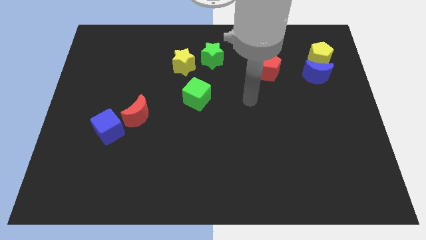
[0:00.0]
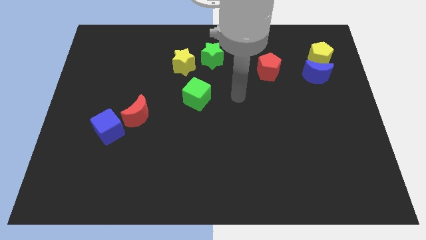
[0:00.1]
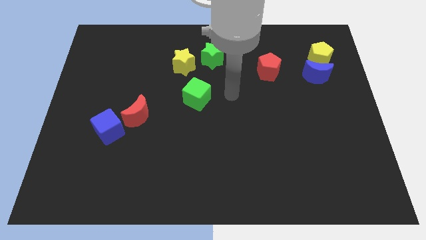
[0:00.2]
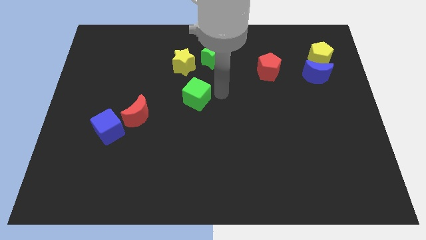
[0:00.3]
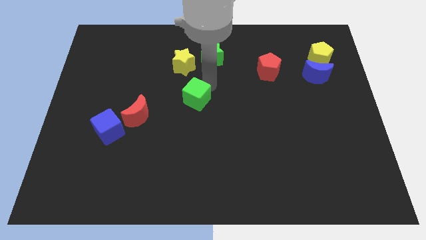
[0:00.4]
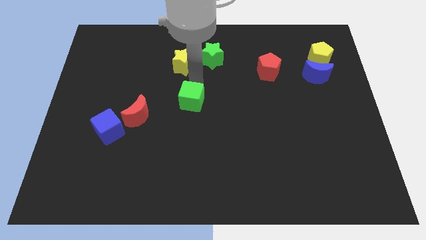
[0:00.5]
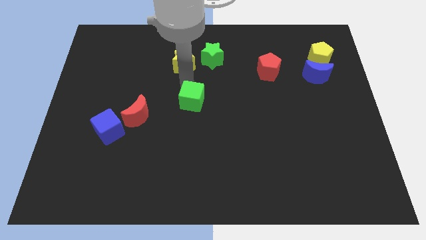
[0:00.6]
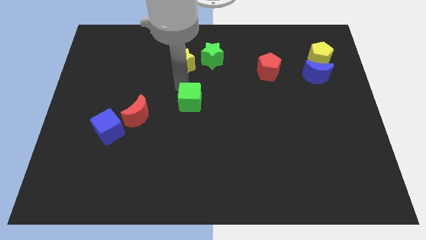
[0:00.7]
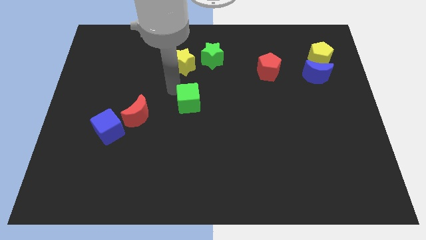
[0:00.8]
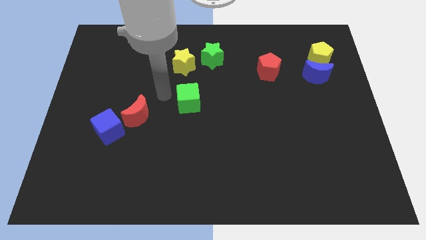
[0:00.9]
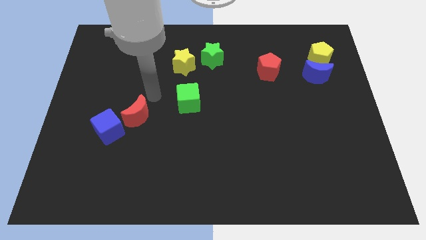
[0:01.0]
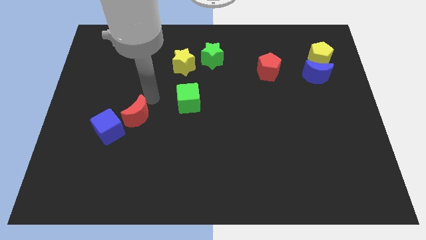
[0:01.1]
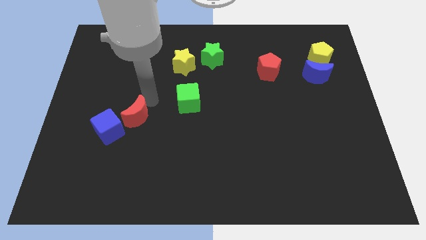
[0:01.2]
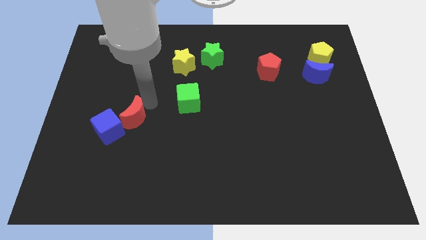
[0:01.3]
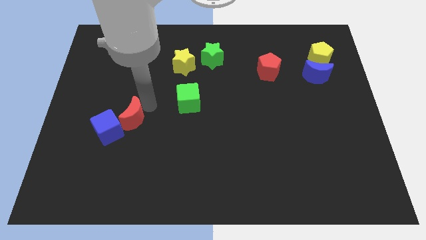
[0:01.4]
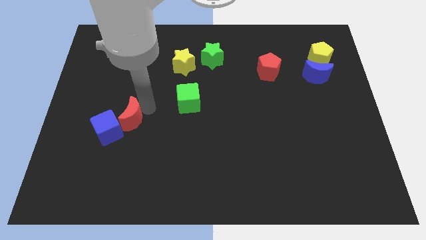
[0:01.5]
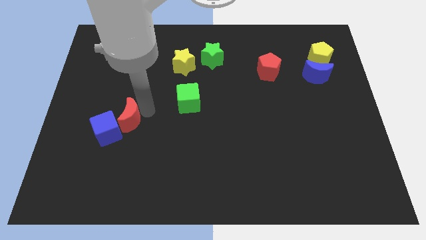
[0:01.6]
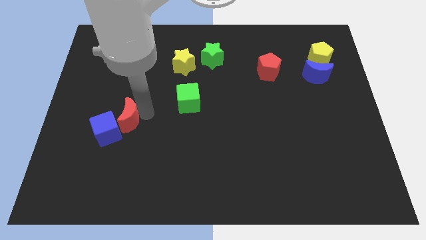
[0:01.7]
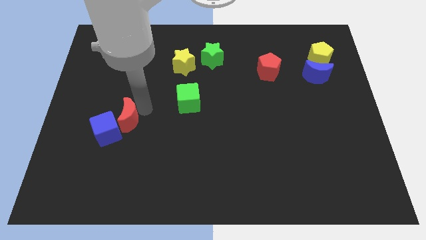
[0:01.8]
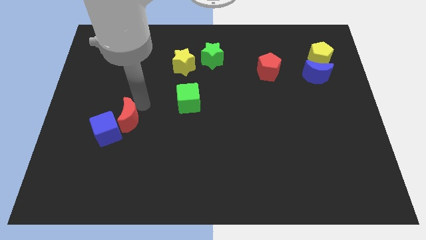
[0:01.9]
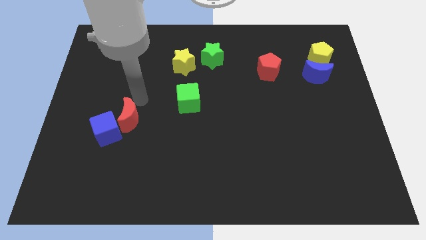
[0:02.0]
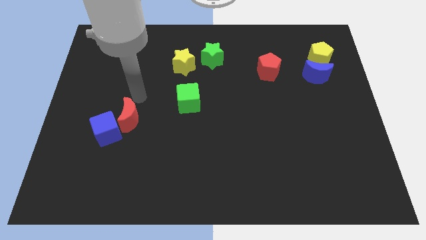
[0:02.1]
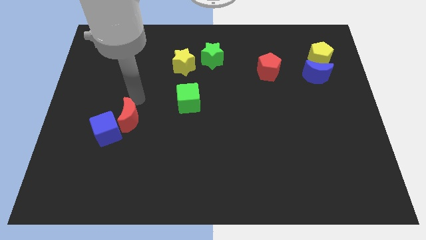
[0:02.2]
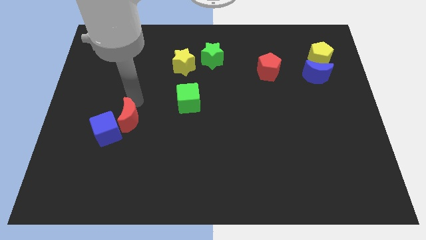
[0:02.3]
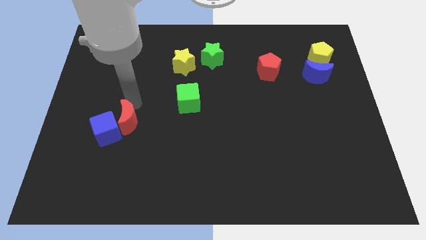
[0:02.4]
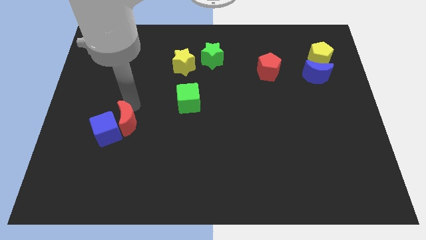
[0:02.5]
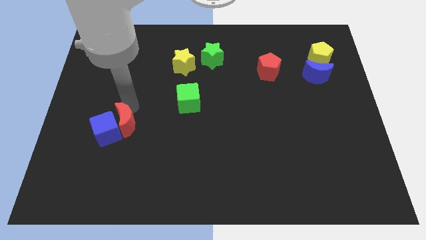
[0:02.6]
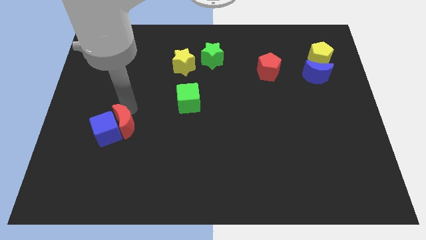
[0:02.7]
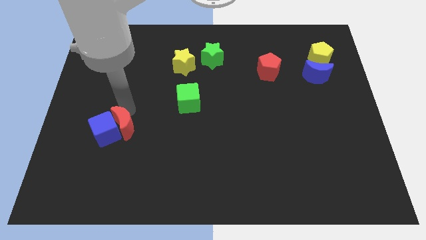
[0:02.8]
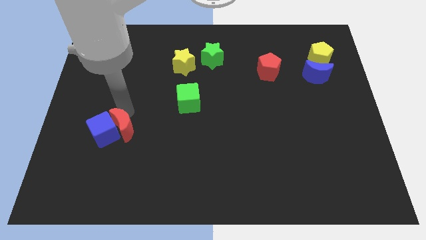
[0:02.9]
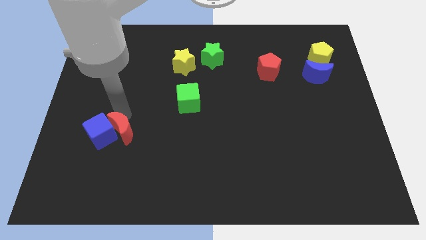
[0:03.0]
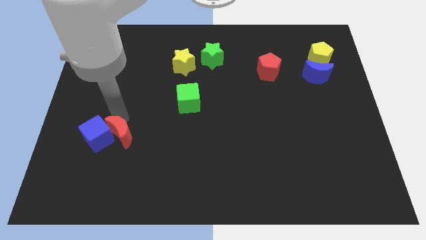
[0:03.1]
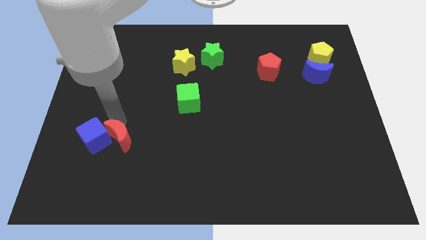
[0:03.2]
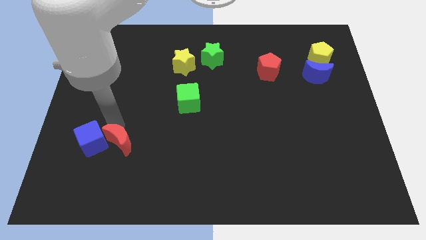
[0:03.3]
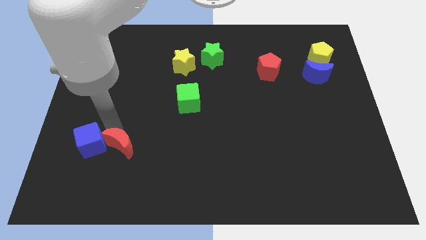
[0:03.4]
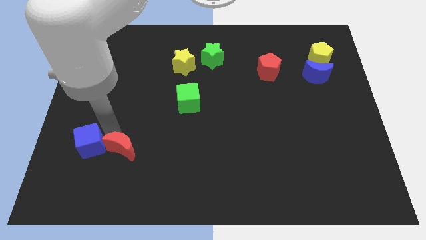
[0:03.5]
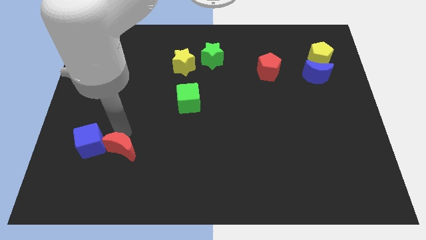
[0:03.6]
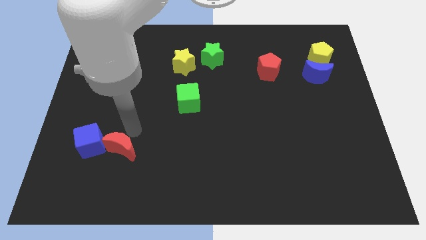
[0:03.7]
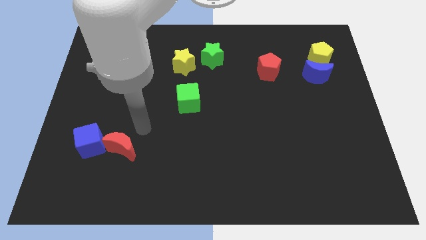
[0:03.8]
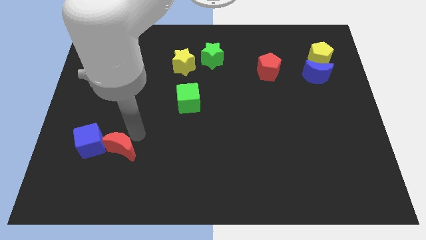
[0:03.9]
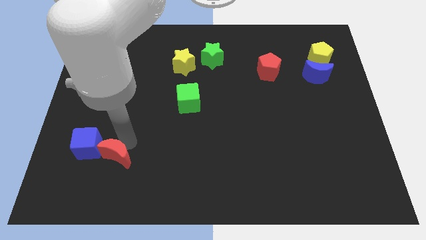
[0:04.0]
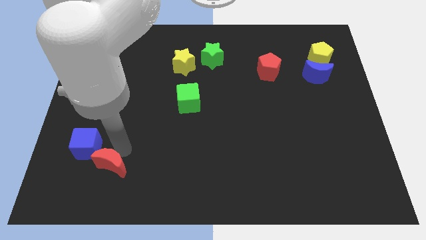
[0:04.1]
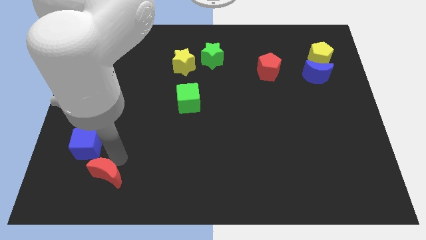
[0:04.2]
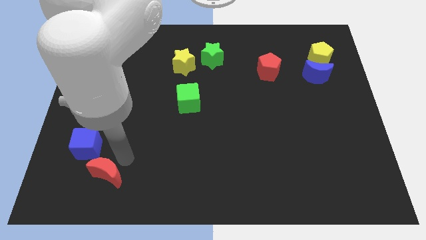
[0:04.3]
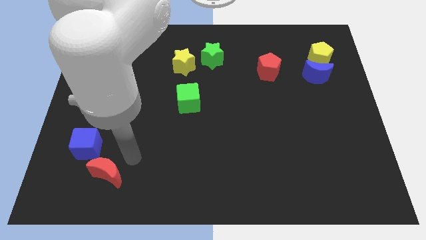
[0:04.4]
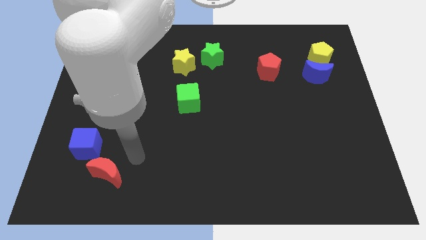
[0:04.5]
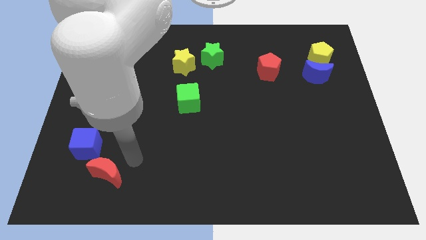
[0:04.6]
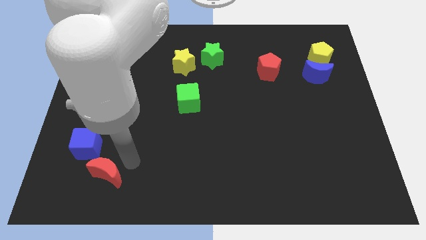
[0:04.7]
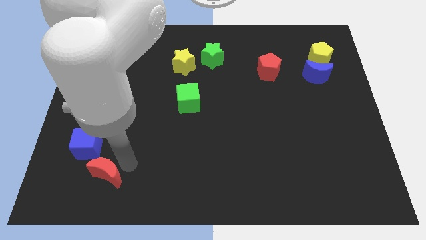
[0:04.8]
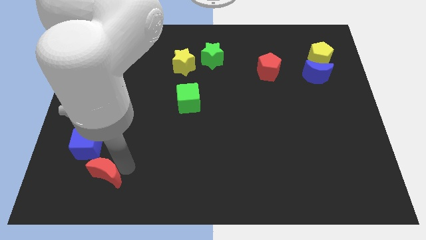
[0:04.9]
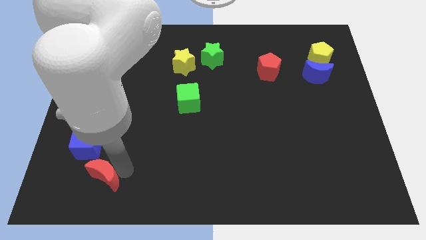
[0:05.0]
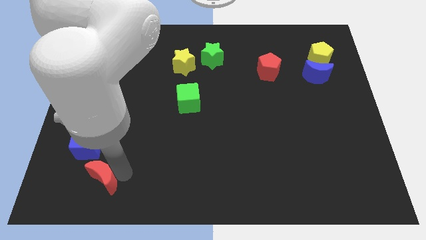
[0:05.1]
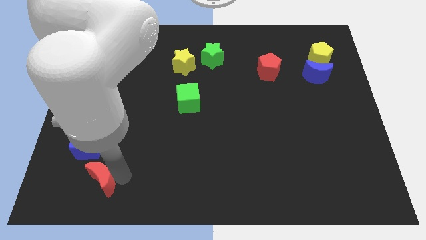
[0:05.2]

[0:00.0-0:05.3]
push the red moon to the bottom side of the blue cube

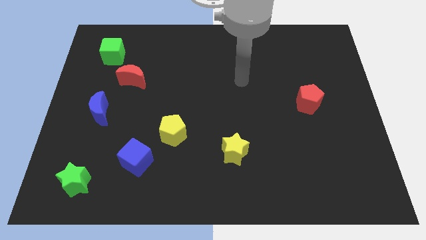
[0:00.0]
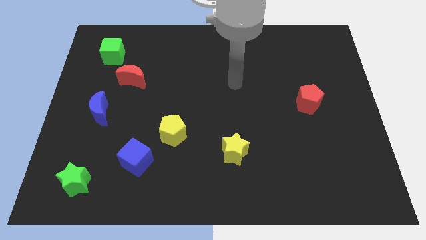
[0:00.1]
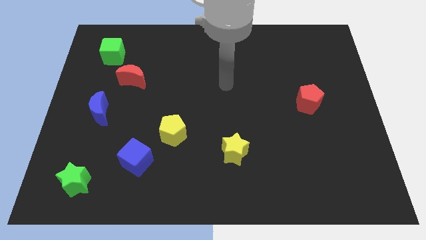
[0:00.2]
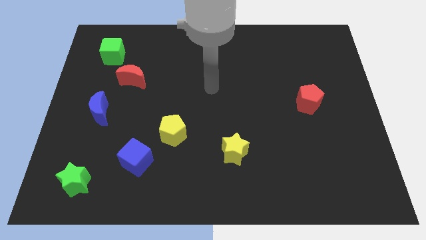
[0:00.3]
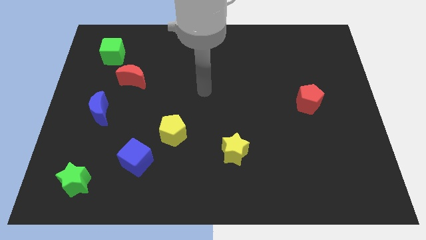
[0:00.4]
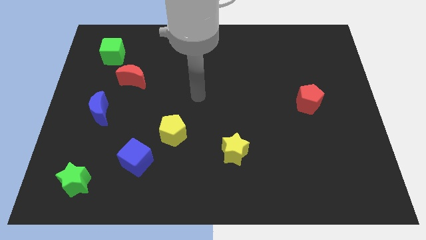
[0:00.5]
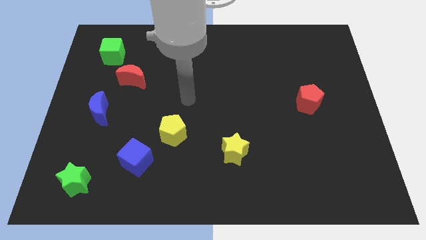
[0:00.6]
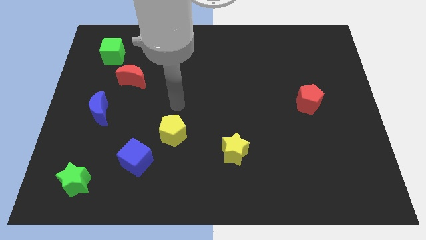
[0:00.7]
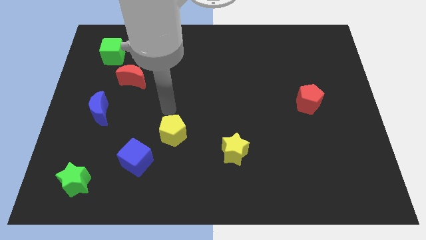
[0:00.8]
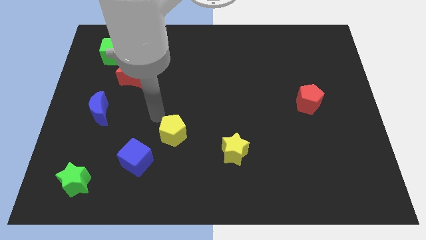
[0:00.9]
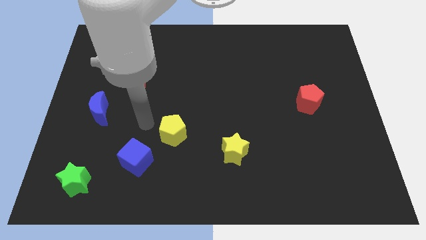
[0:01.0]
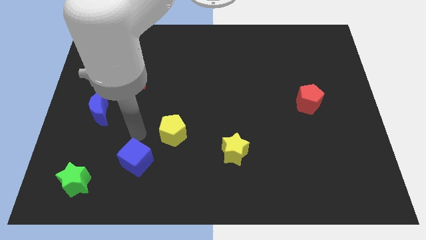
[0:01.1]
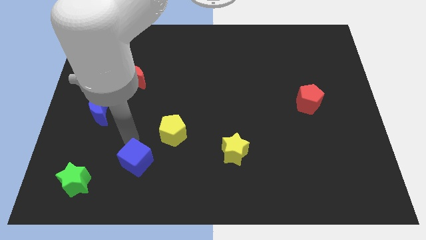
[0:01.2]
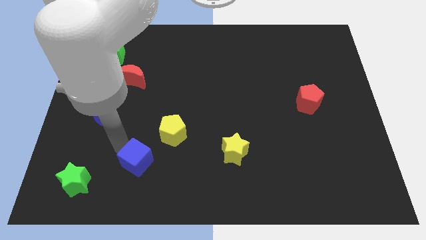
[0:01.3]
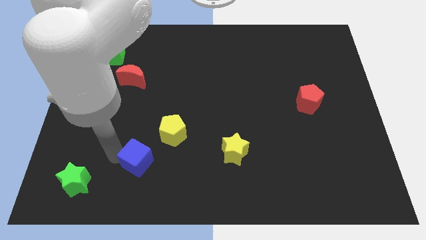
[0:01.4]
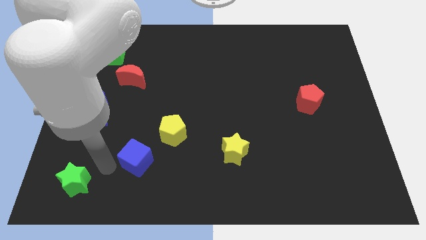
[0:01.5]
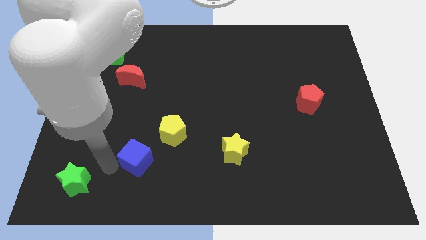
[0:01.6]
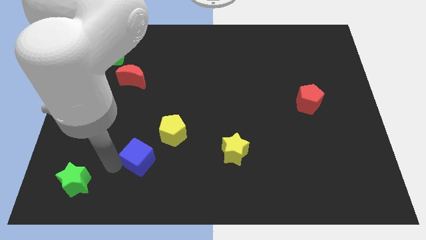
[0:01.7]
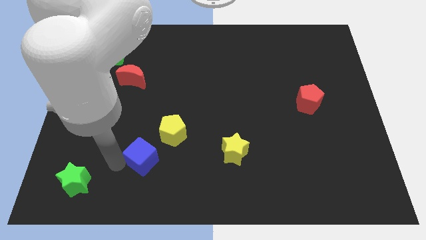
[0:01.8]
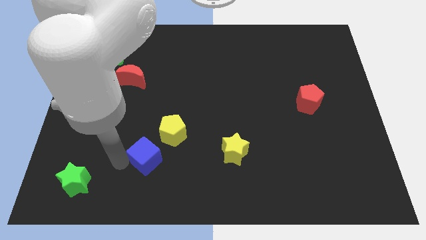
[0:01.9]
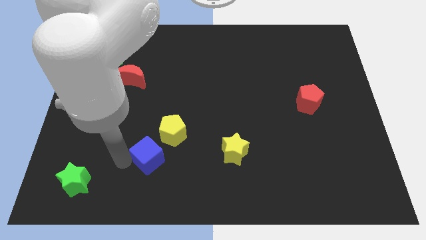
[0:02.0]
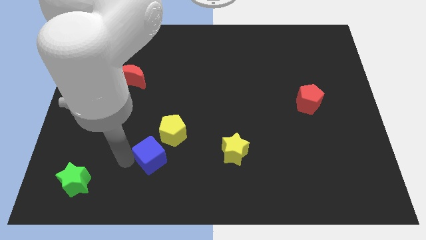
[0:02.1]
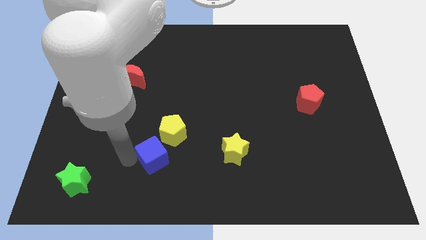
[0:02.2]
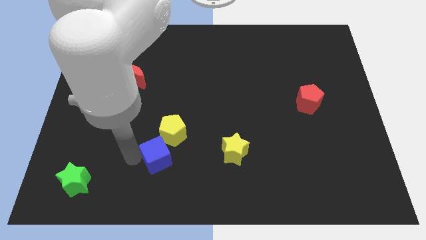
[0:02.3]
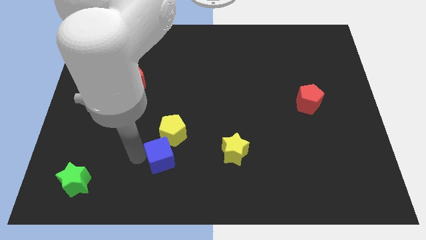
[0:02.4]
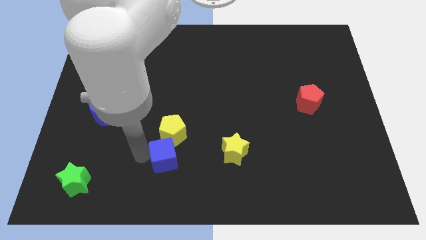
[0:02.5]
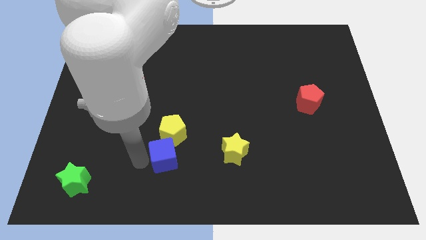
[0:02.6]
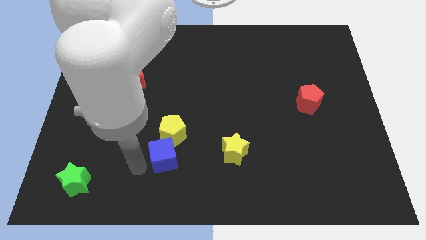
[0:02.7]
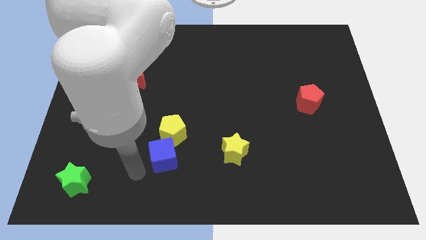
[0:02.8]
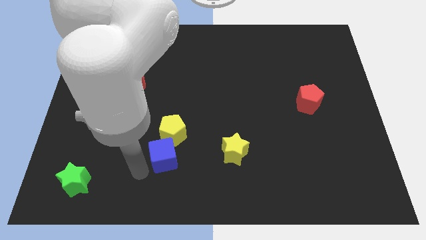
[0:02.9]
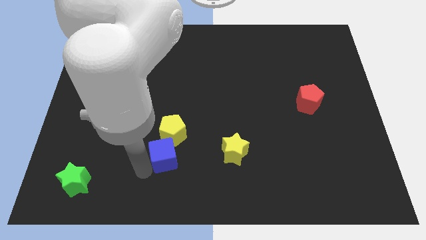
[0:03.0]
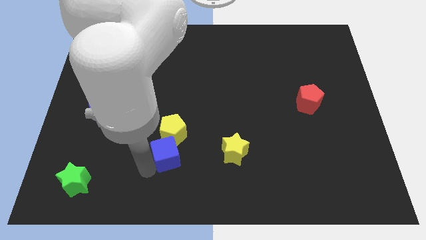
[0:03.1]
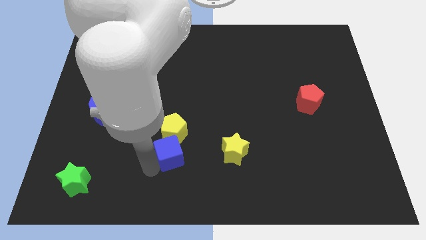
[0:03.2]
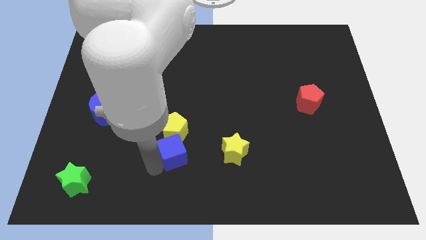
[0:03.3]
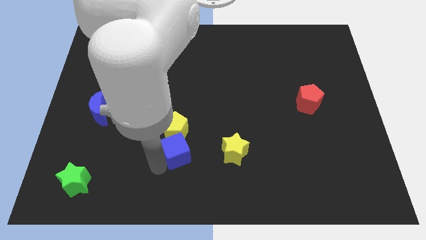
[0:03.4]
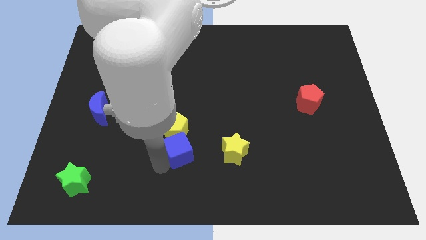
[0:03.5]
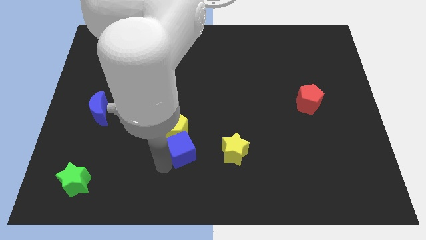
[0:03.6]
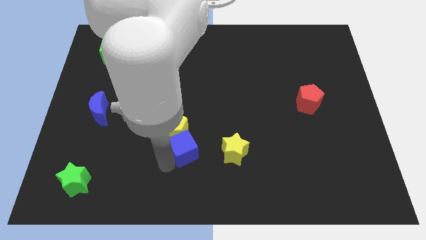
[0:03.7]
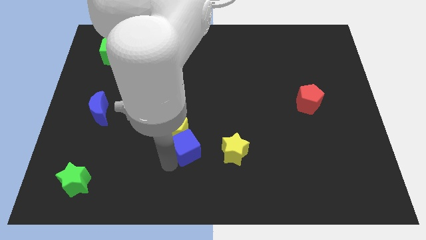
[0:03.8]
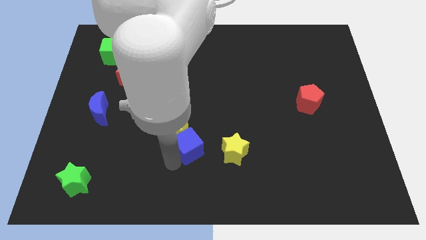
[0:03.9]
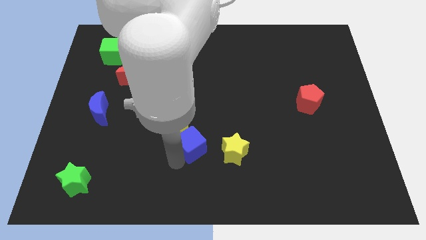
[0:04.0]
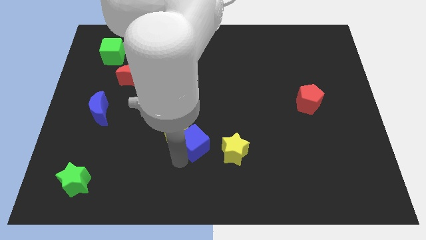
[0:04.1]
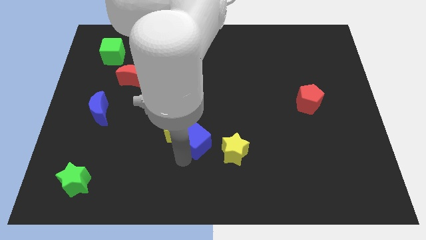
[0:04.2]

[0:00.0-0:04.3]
push the blue cube to the top left side of the yellow star
